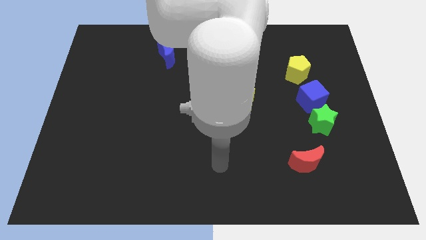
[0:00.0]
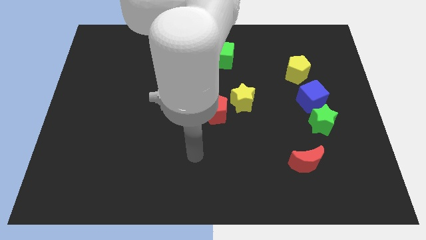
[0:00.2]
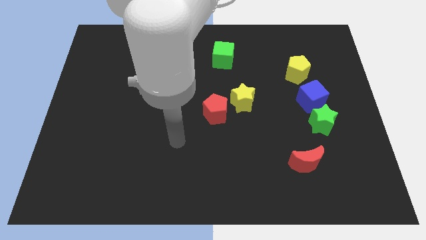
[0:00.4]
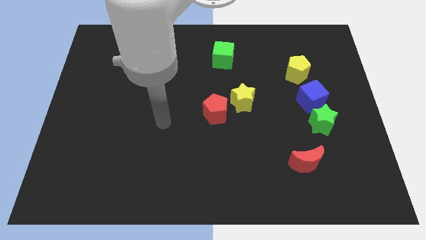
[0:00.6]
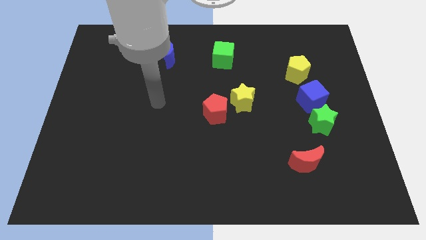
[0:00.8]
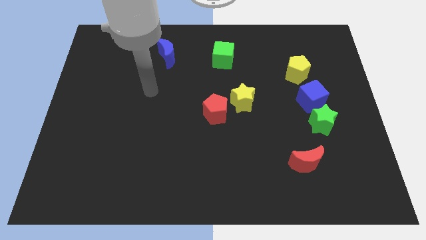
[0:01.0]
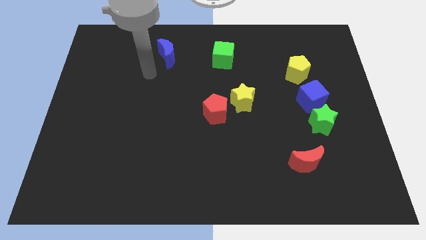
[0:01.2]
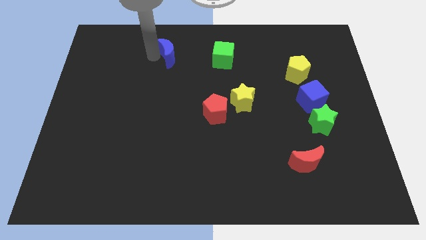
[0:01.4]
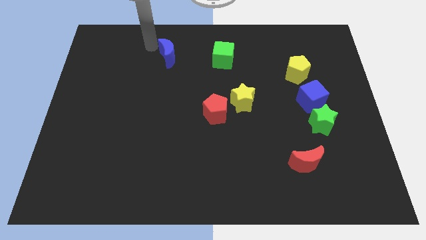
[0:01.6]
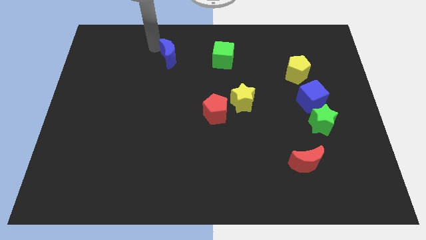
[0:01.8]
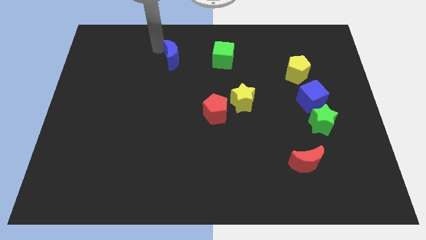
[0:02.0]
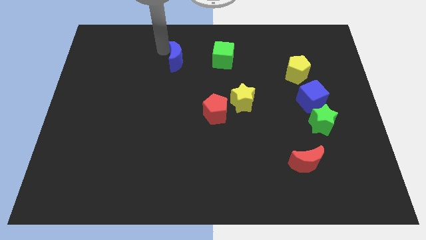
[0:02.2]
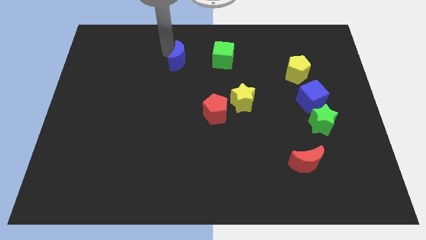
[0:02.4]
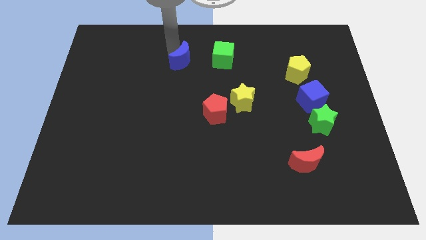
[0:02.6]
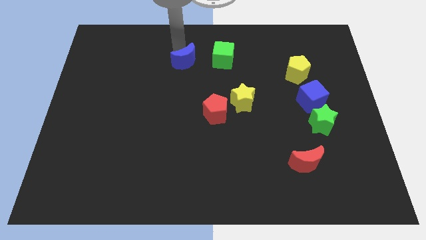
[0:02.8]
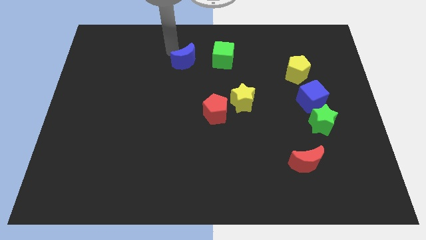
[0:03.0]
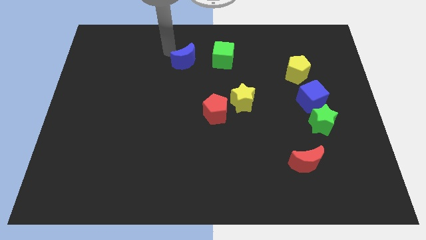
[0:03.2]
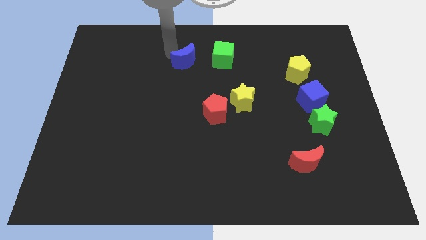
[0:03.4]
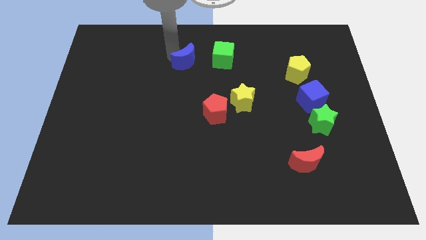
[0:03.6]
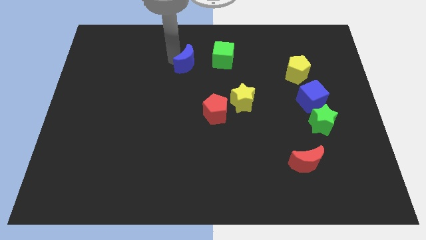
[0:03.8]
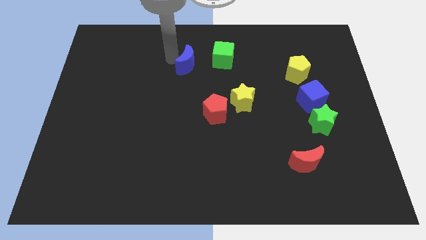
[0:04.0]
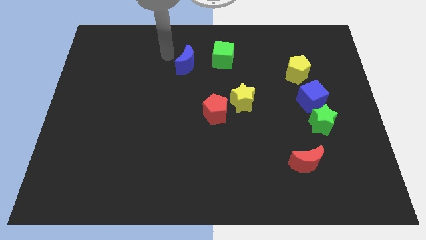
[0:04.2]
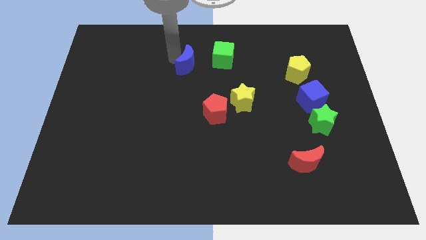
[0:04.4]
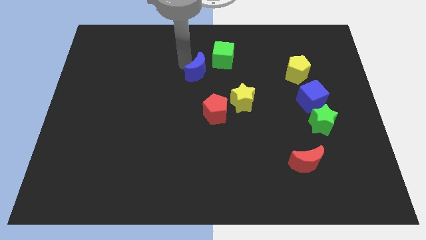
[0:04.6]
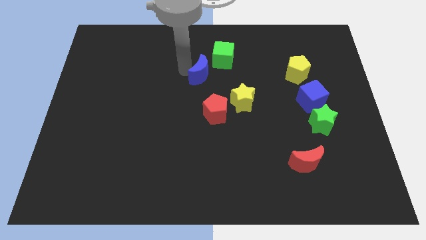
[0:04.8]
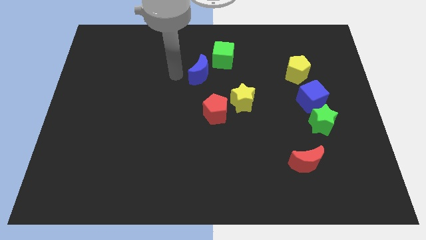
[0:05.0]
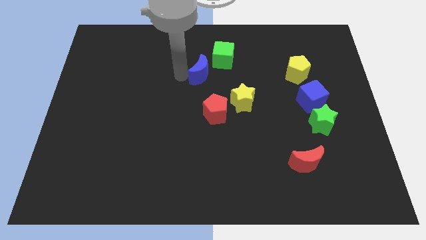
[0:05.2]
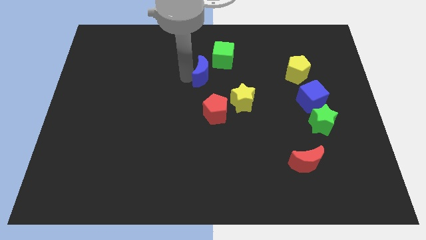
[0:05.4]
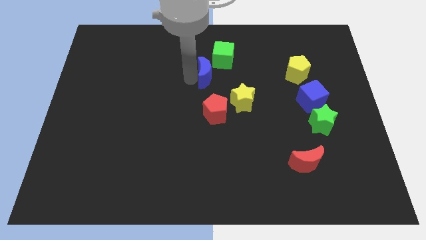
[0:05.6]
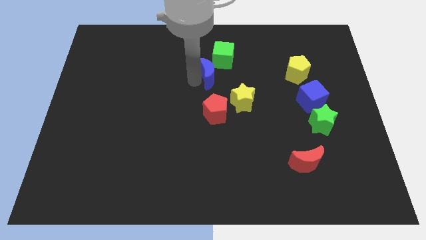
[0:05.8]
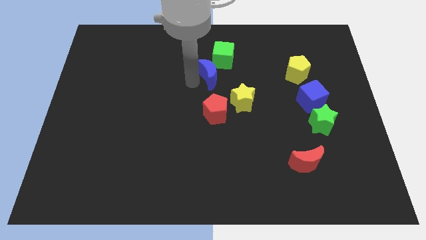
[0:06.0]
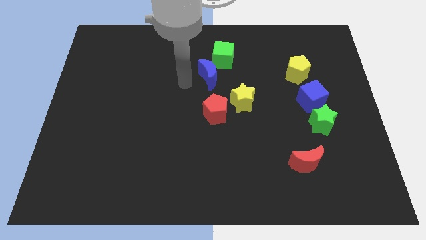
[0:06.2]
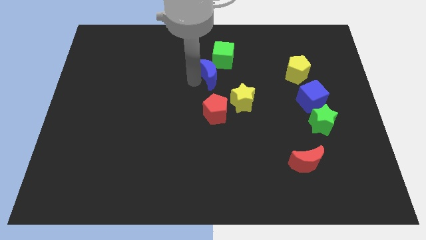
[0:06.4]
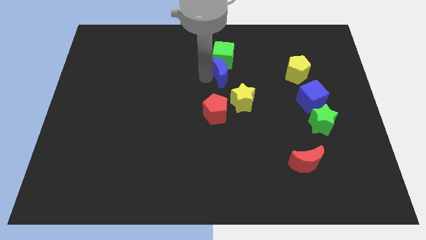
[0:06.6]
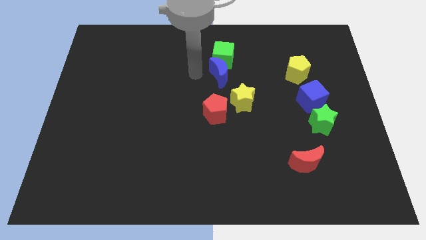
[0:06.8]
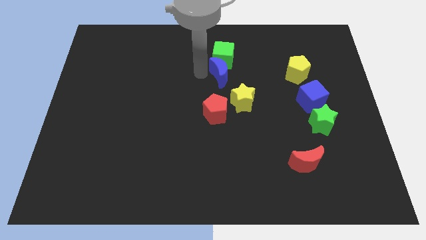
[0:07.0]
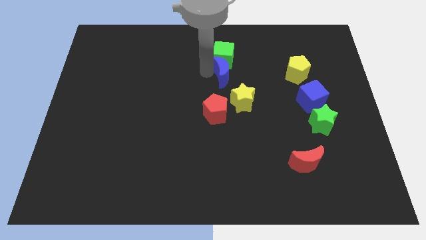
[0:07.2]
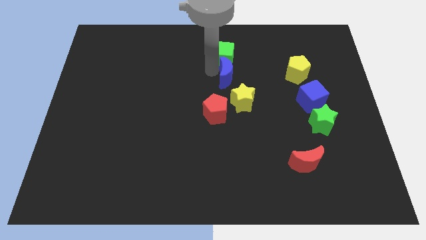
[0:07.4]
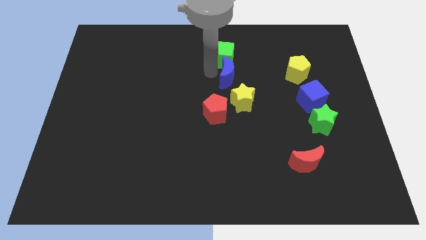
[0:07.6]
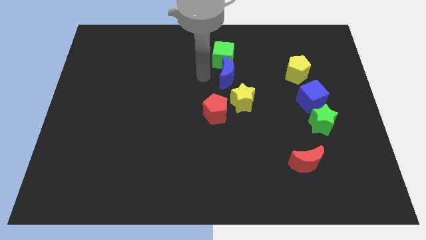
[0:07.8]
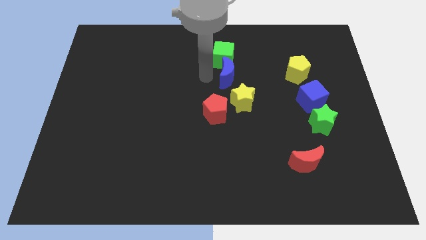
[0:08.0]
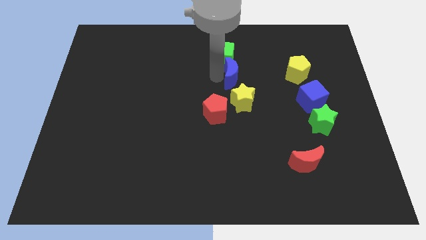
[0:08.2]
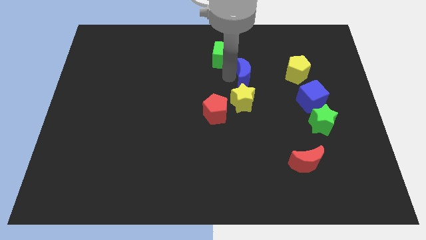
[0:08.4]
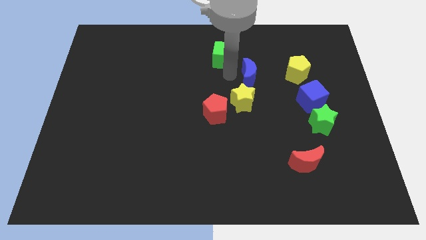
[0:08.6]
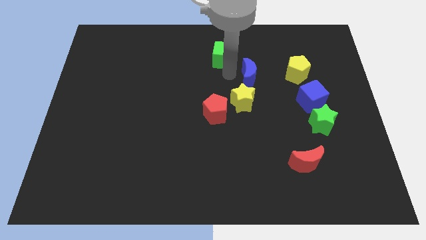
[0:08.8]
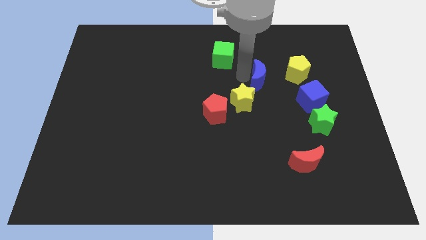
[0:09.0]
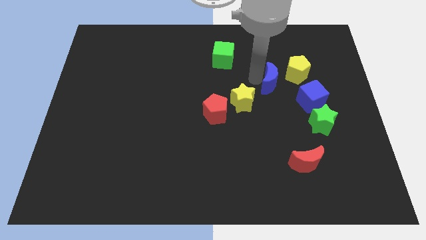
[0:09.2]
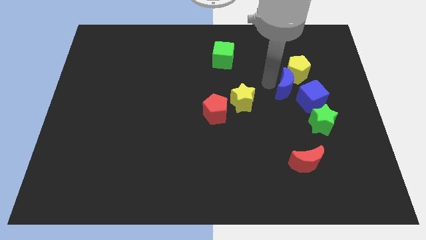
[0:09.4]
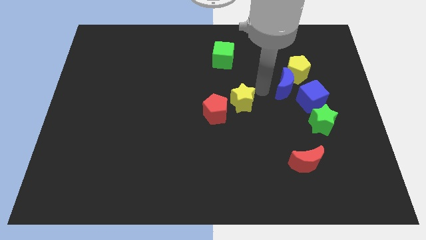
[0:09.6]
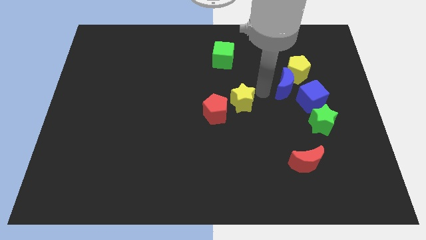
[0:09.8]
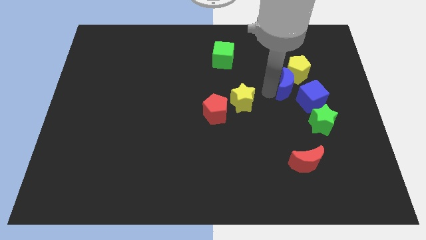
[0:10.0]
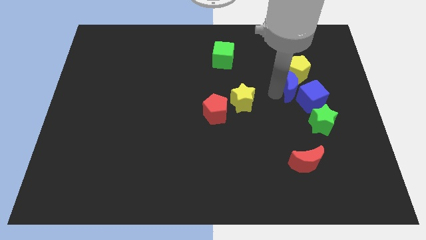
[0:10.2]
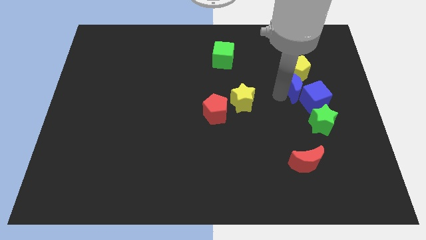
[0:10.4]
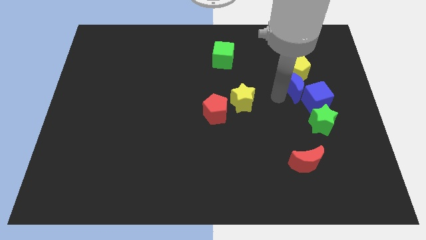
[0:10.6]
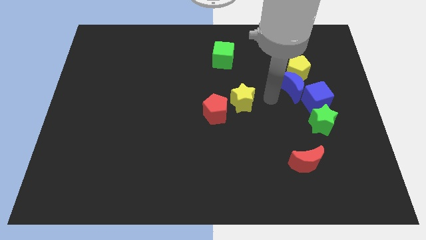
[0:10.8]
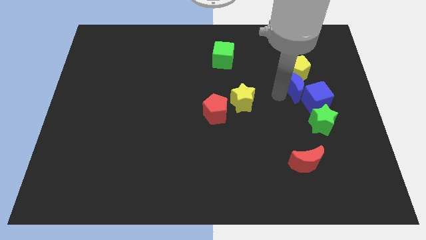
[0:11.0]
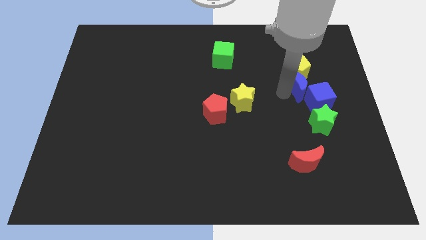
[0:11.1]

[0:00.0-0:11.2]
push the blue moon to the bottom right side of the yellow pentagon

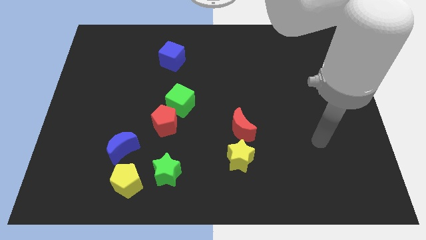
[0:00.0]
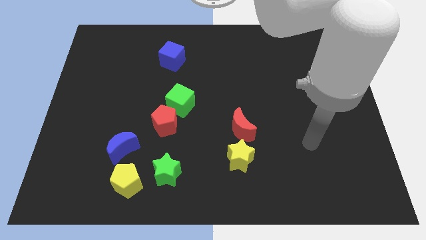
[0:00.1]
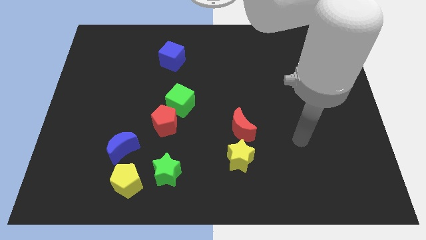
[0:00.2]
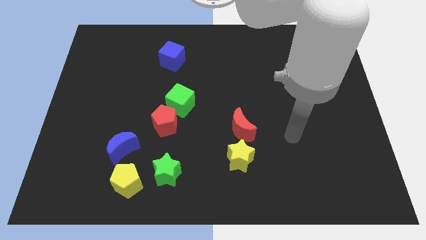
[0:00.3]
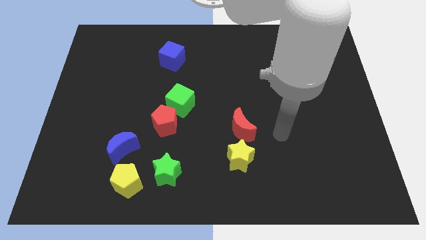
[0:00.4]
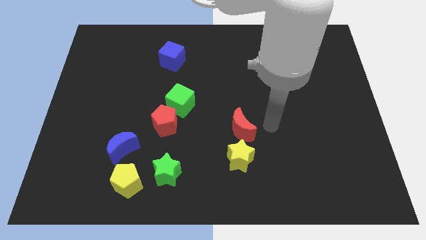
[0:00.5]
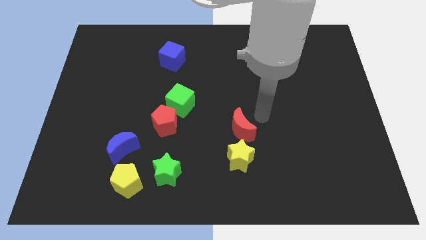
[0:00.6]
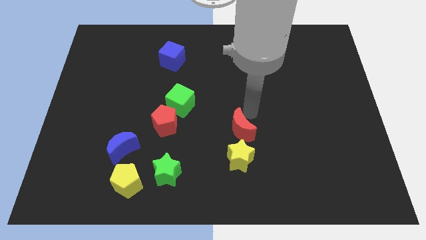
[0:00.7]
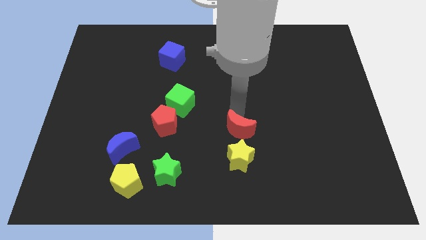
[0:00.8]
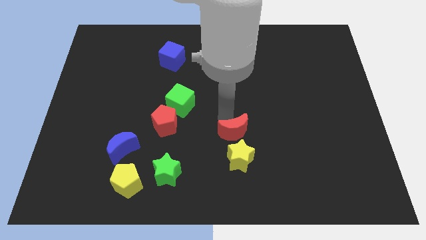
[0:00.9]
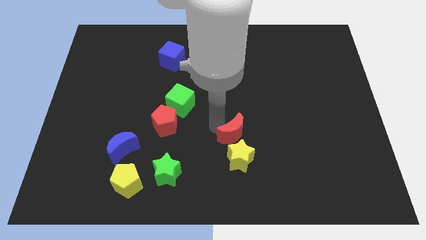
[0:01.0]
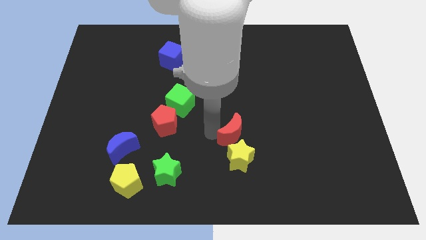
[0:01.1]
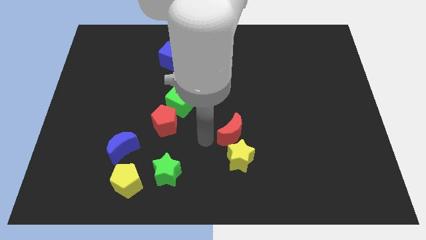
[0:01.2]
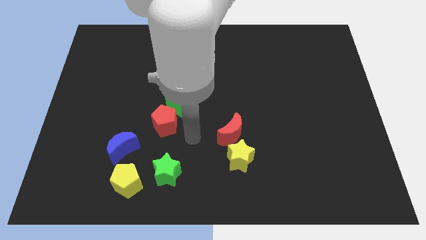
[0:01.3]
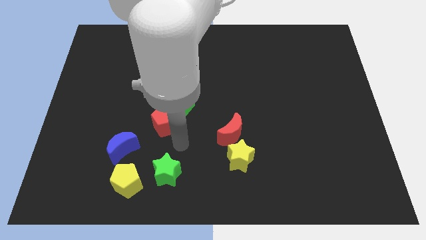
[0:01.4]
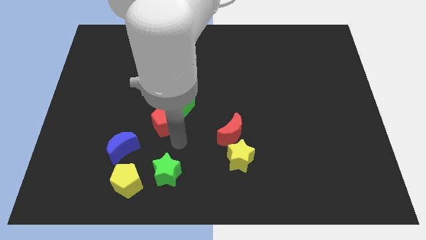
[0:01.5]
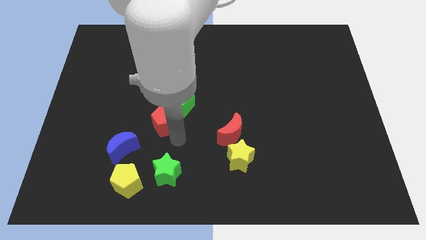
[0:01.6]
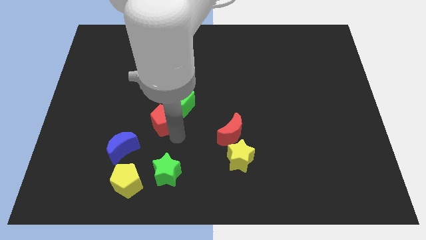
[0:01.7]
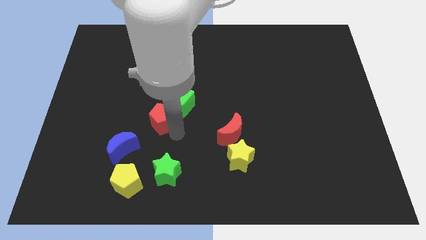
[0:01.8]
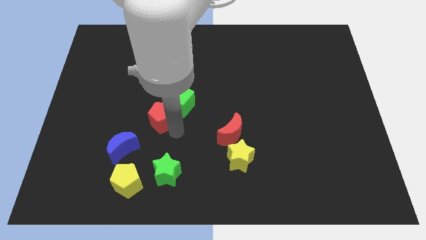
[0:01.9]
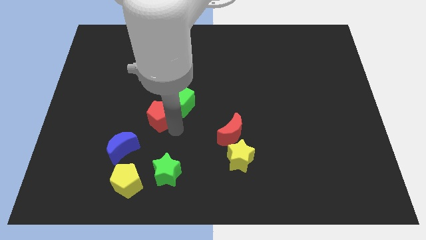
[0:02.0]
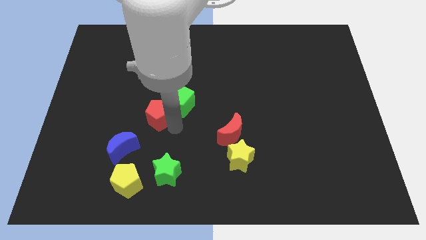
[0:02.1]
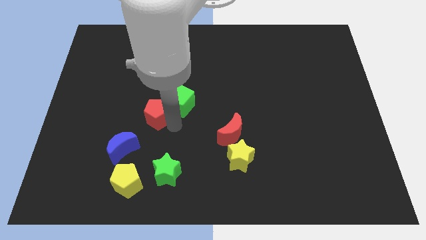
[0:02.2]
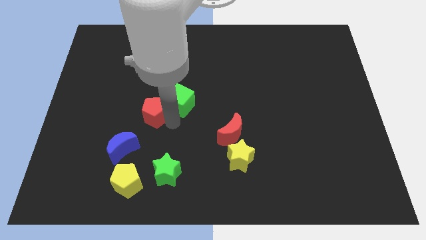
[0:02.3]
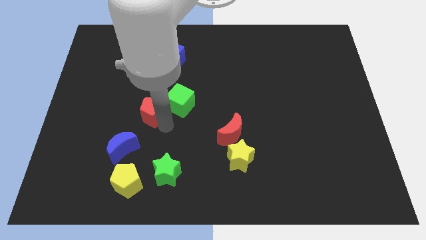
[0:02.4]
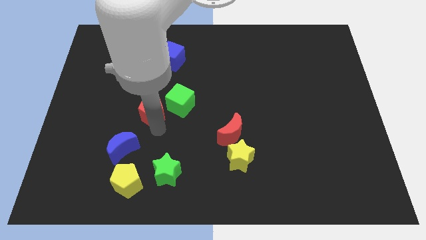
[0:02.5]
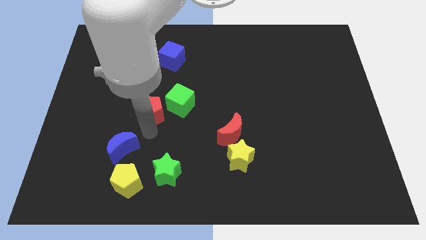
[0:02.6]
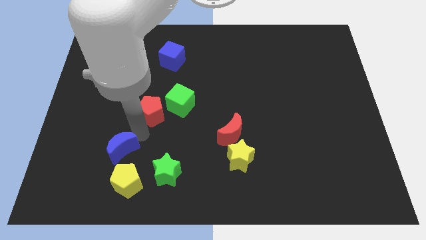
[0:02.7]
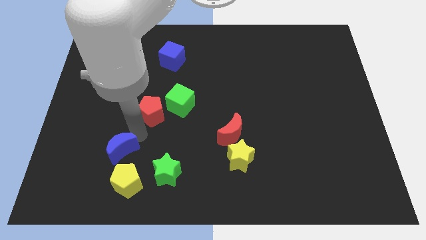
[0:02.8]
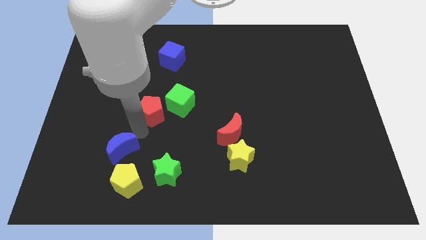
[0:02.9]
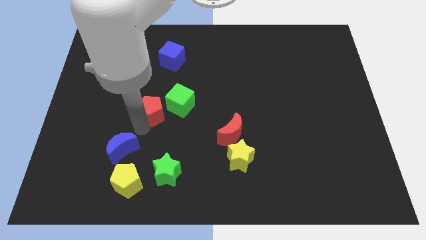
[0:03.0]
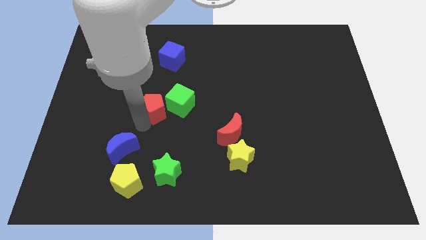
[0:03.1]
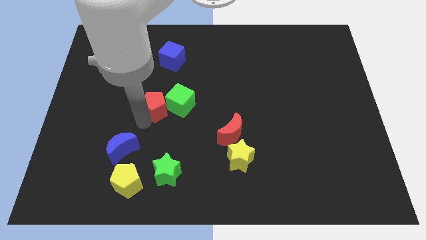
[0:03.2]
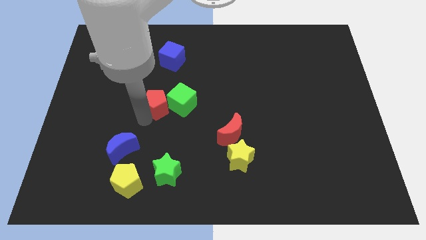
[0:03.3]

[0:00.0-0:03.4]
slide the red pentagon to the bottom of the blue cube
